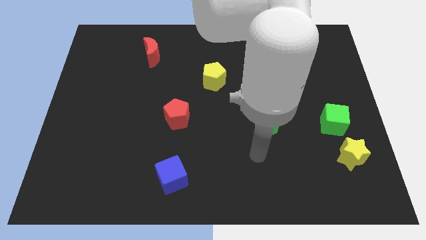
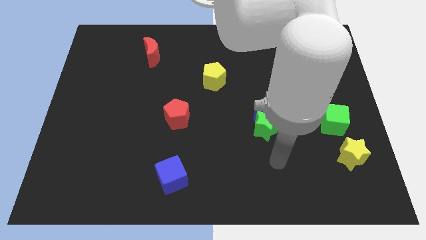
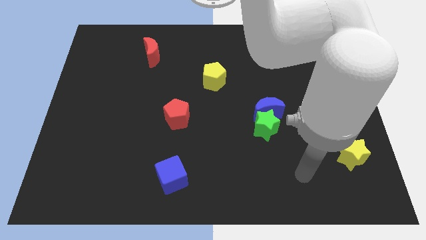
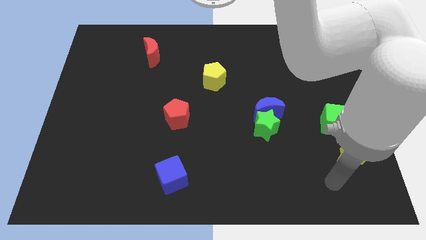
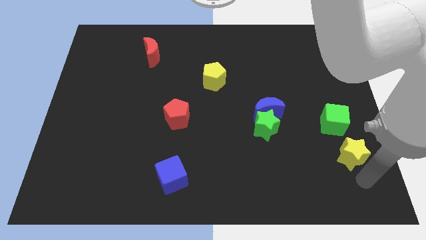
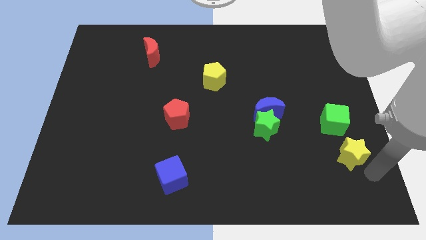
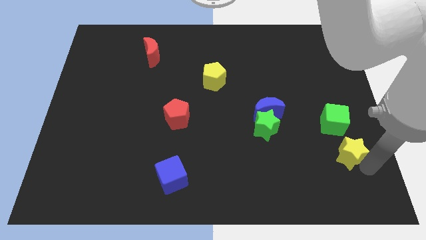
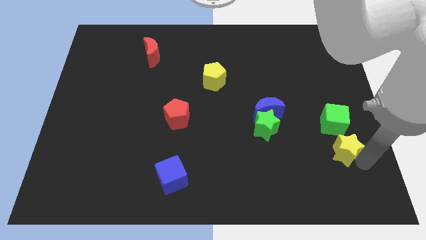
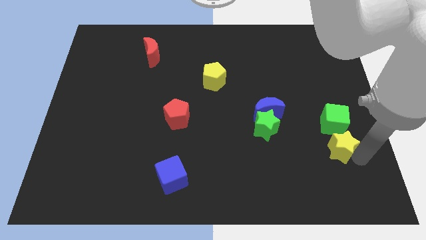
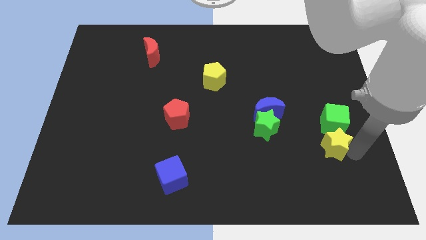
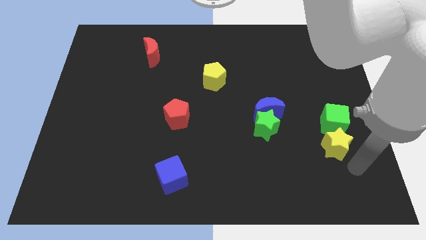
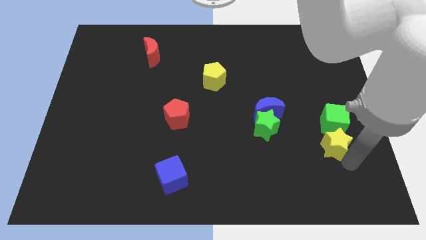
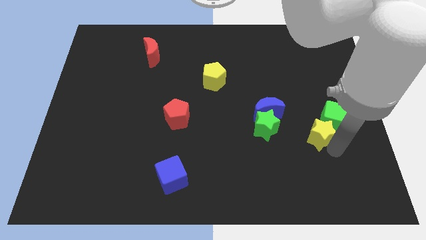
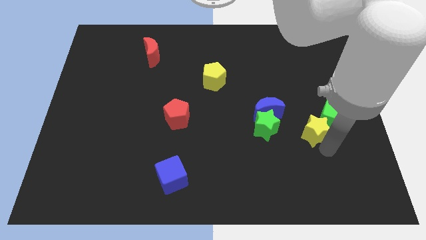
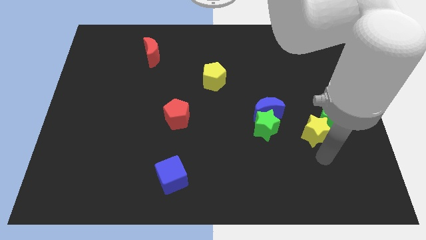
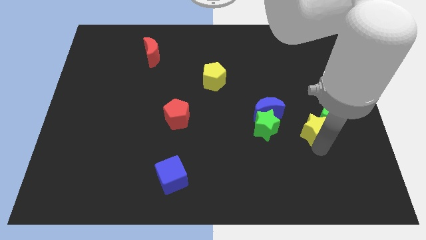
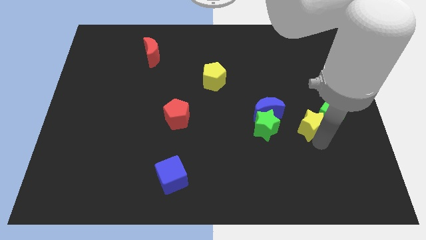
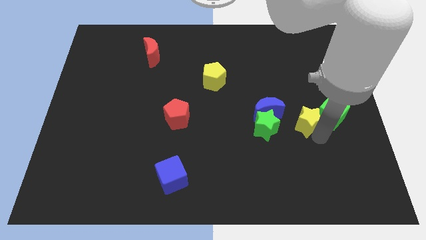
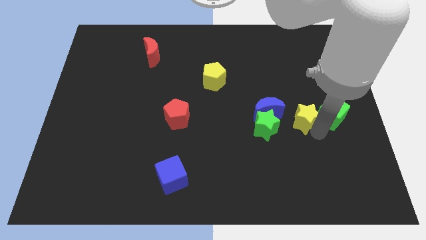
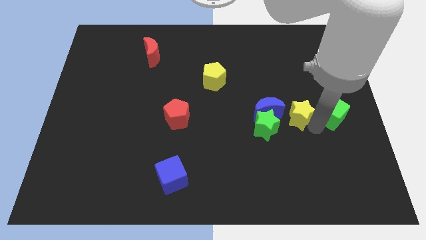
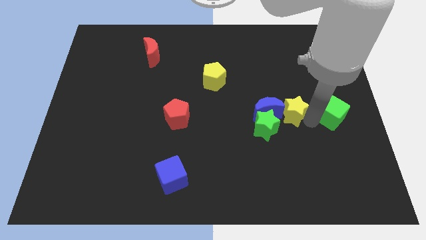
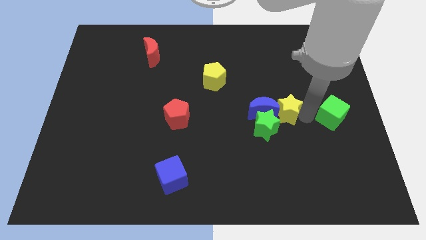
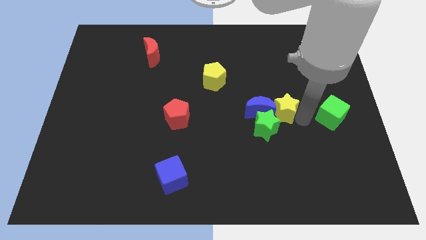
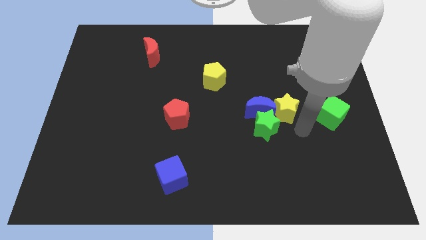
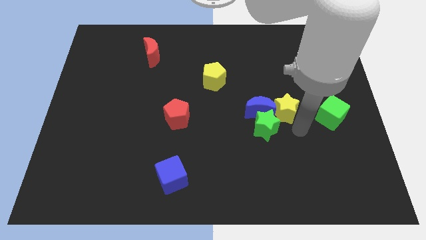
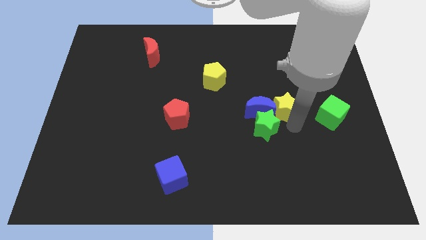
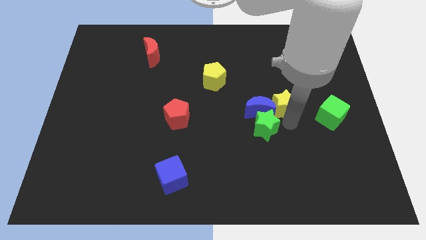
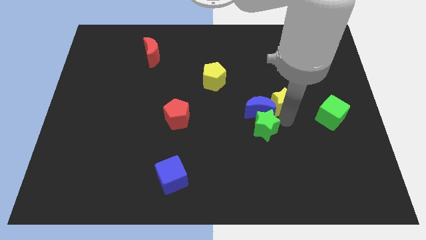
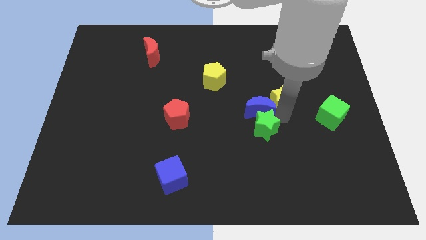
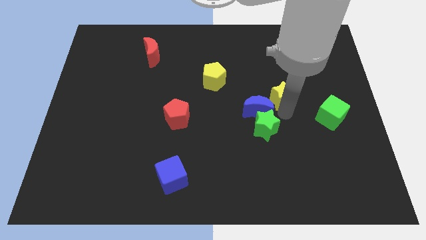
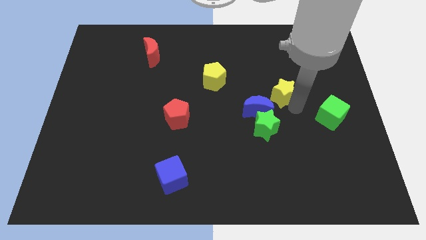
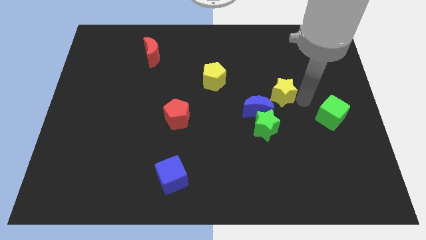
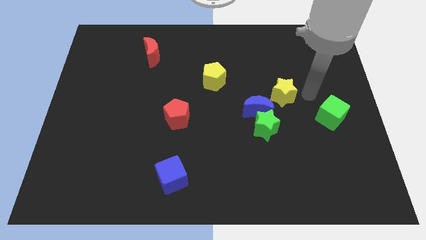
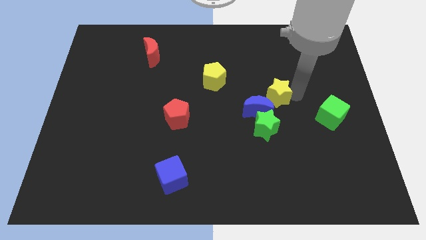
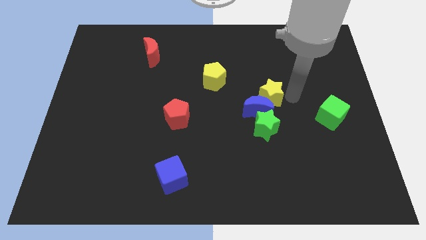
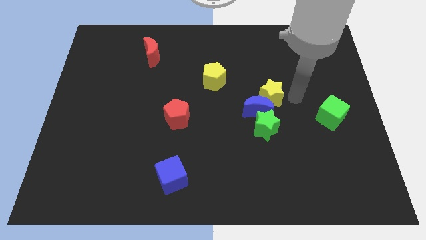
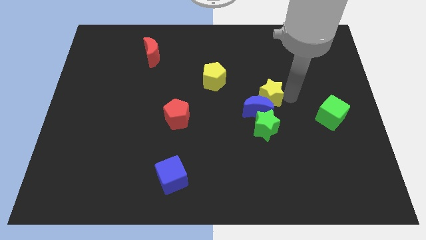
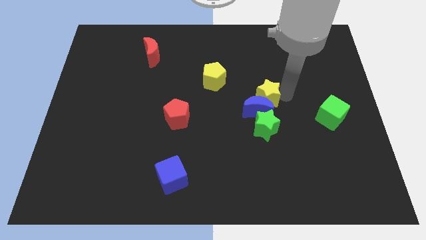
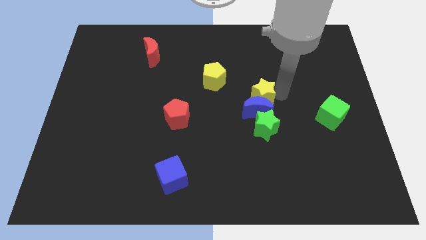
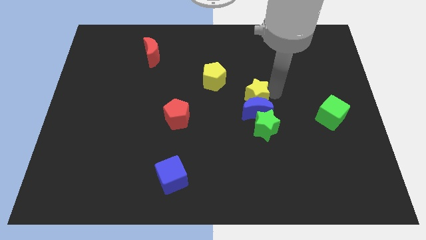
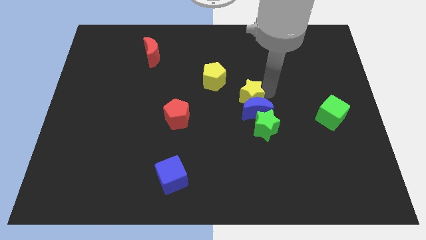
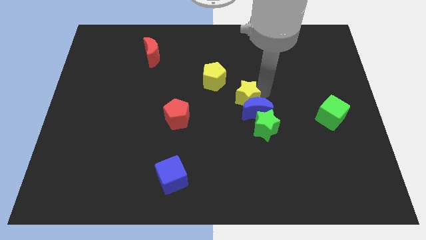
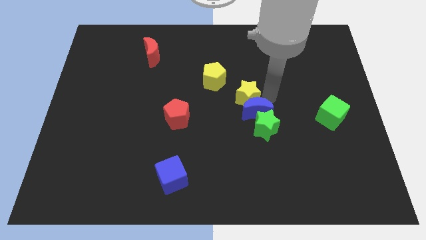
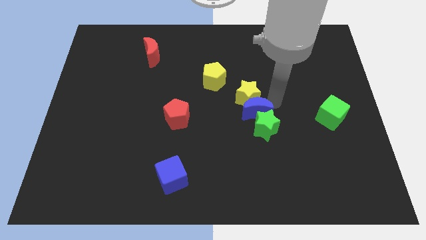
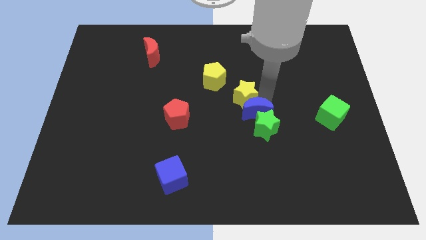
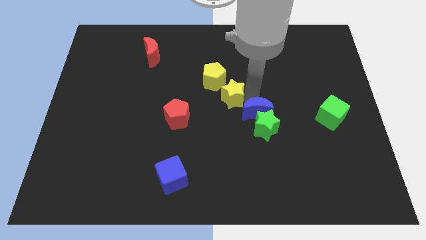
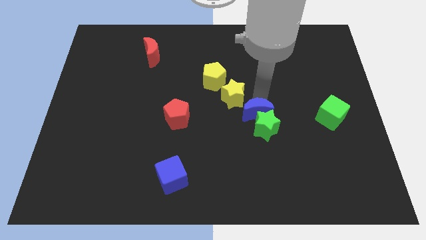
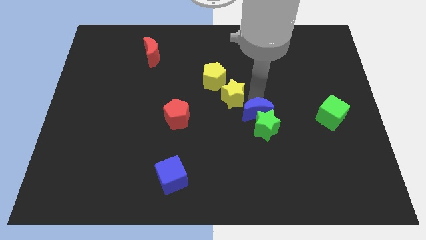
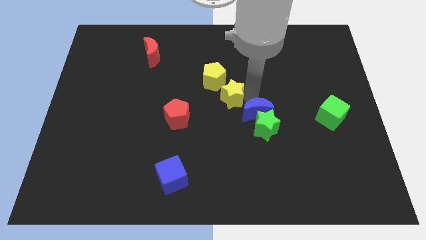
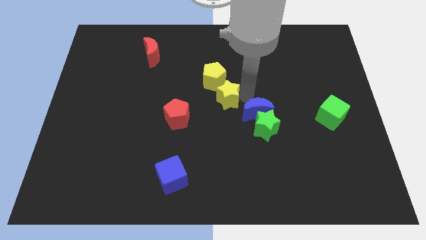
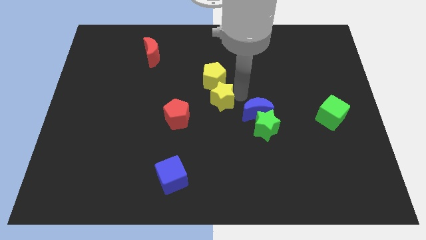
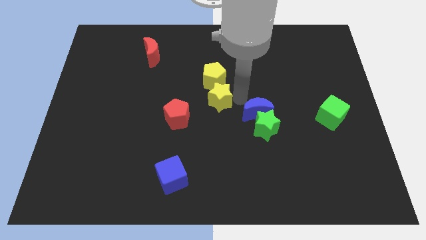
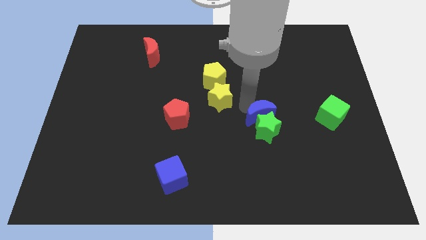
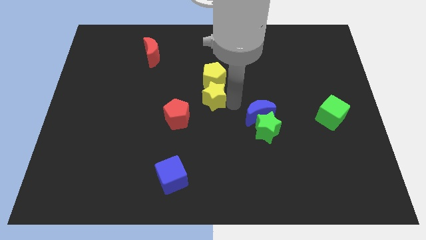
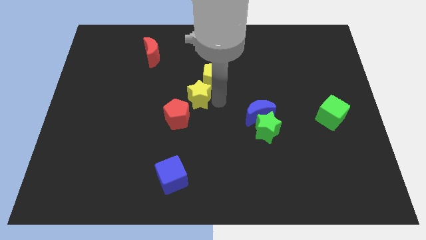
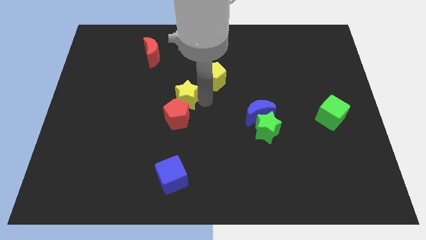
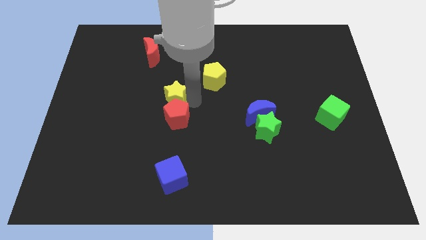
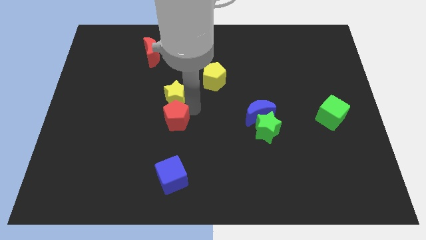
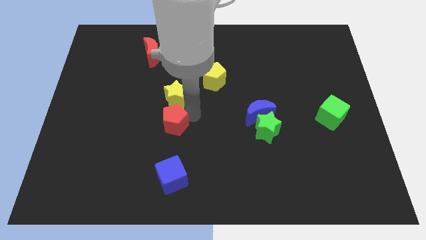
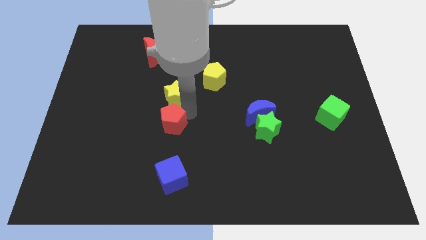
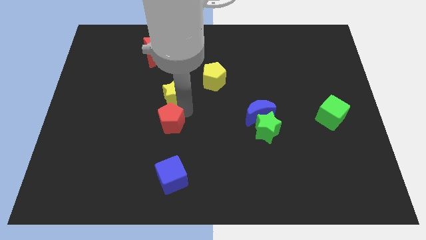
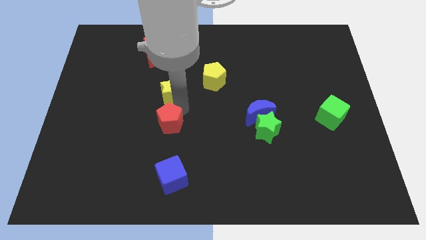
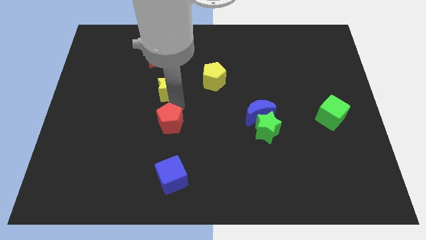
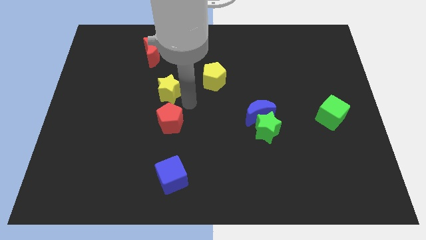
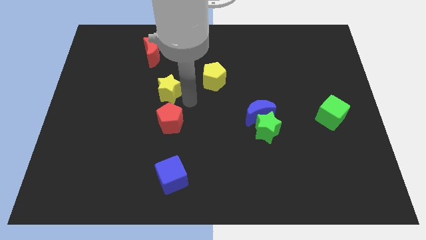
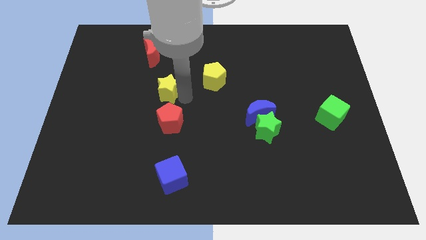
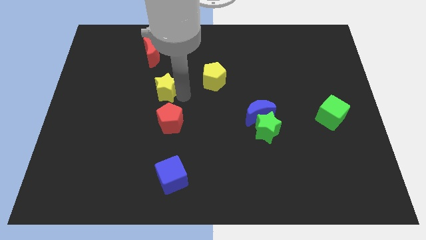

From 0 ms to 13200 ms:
push the yellow star to the bottom side of the red moon
